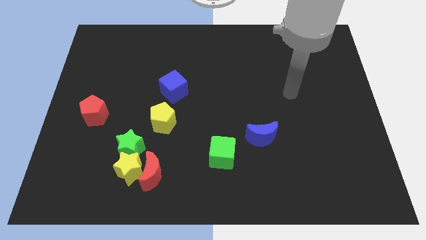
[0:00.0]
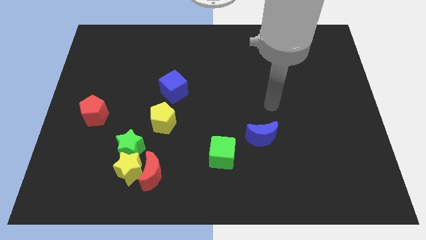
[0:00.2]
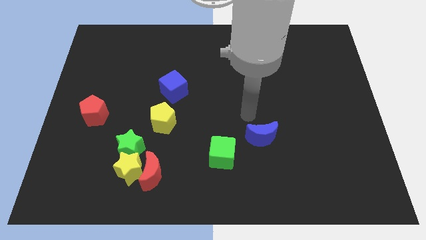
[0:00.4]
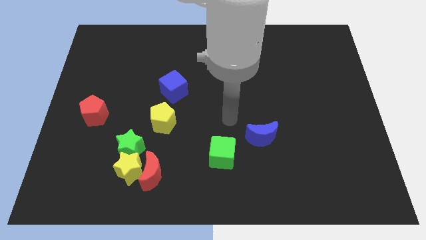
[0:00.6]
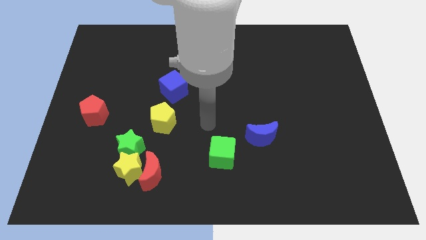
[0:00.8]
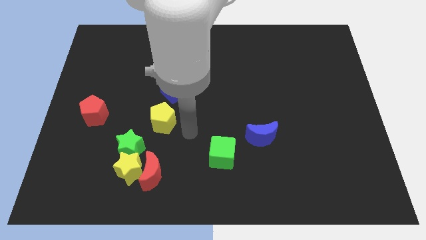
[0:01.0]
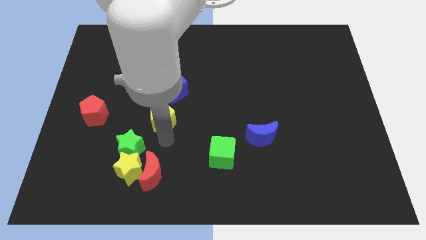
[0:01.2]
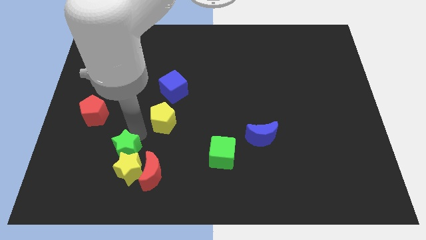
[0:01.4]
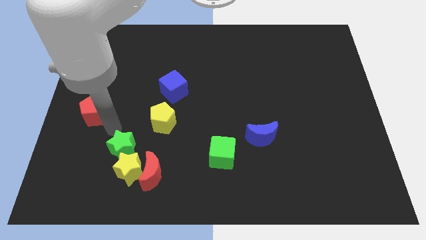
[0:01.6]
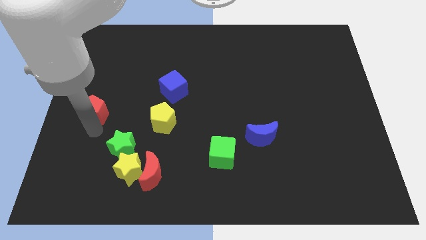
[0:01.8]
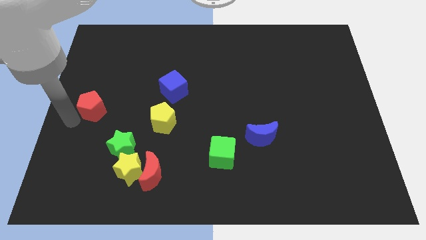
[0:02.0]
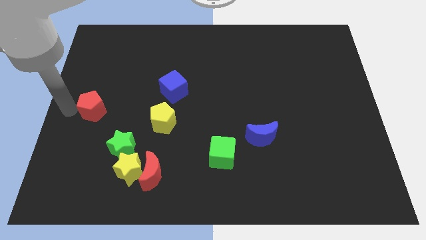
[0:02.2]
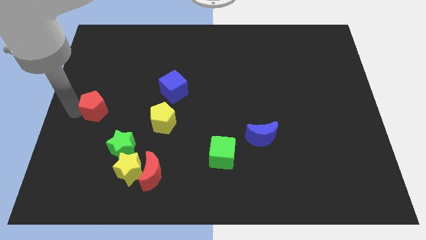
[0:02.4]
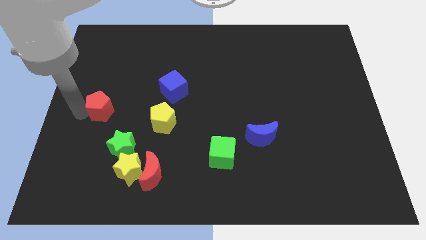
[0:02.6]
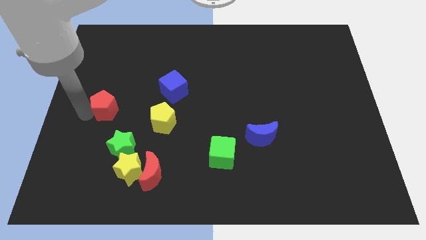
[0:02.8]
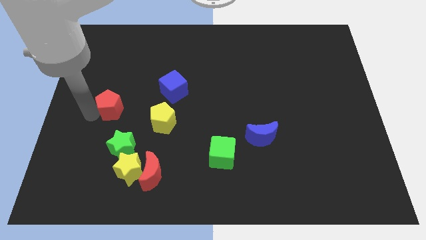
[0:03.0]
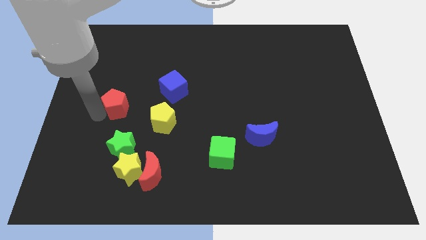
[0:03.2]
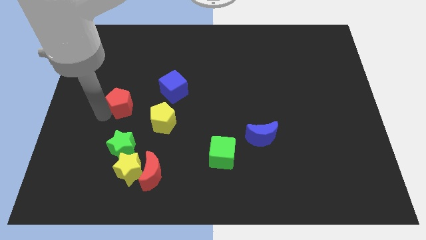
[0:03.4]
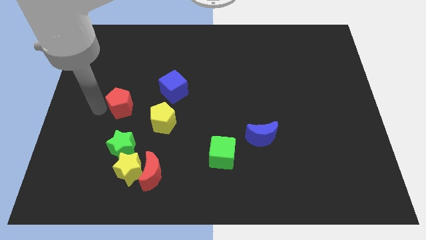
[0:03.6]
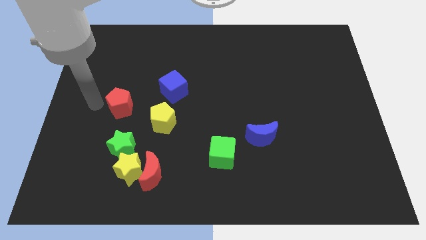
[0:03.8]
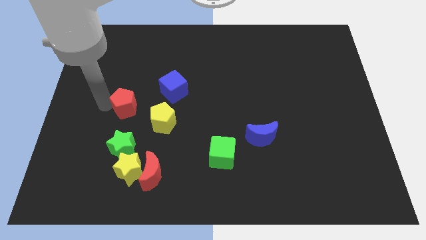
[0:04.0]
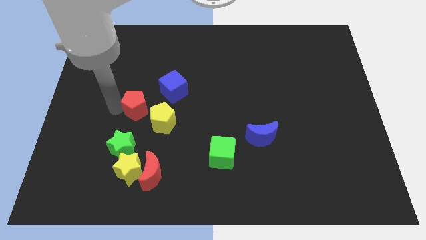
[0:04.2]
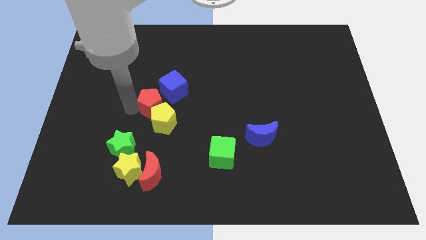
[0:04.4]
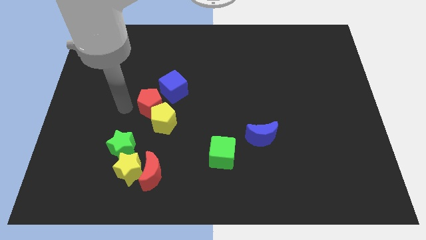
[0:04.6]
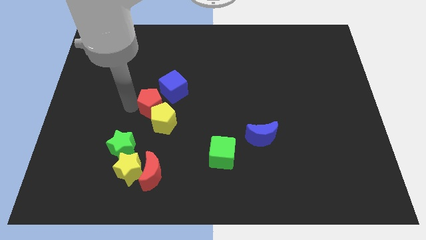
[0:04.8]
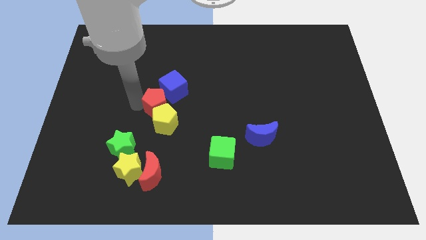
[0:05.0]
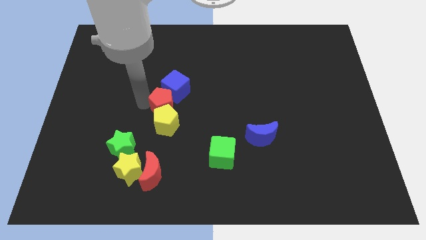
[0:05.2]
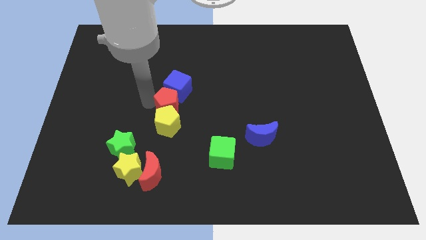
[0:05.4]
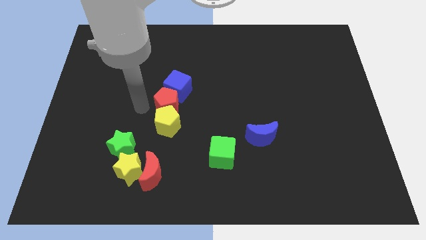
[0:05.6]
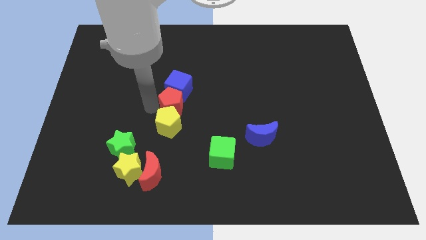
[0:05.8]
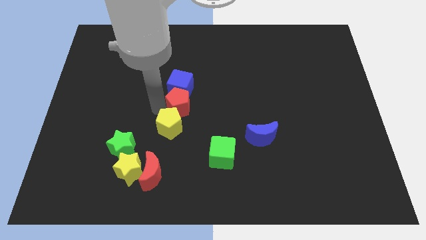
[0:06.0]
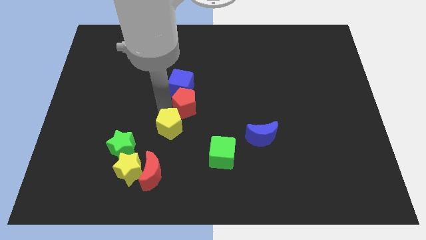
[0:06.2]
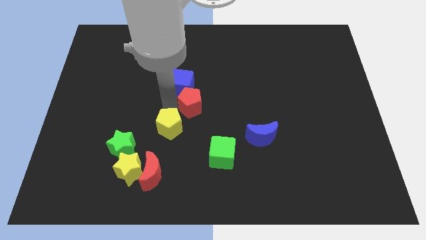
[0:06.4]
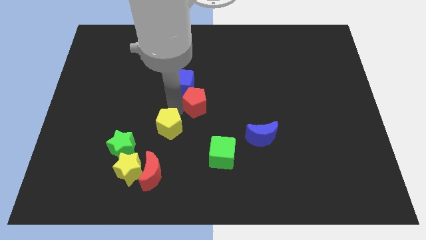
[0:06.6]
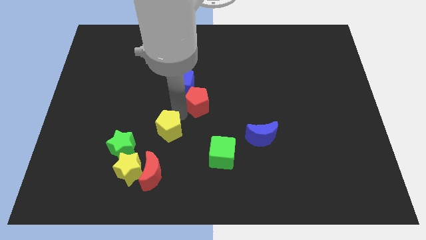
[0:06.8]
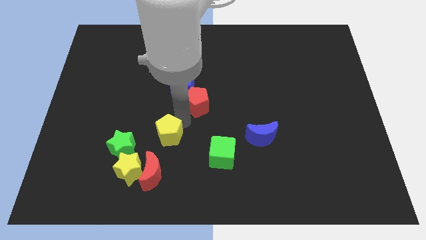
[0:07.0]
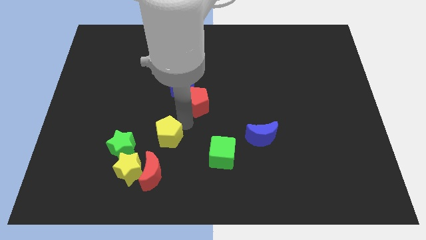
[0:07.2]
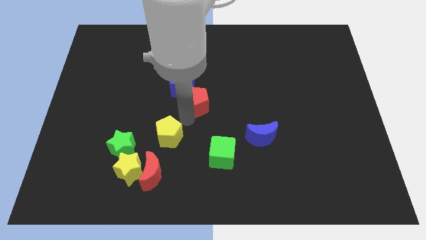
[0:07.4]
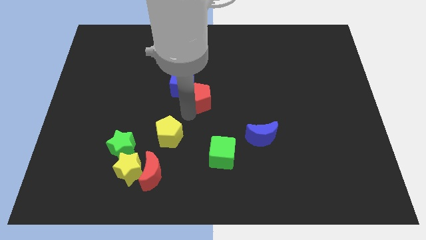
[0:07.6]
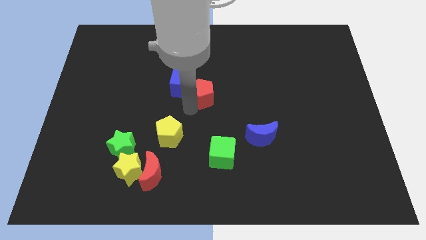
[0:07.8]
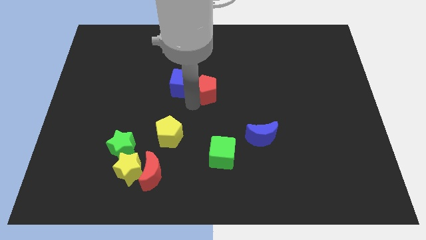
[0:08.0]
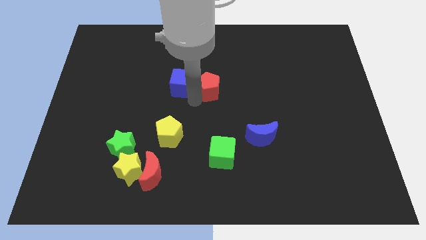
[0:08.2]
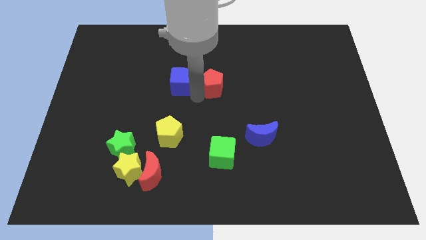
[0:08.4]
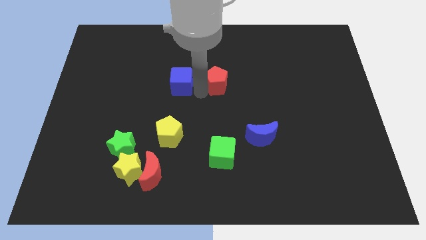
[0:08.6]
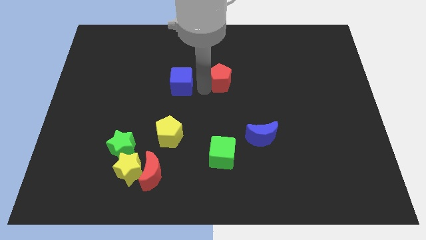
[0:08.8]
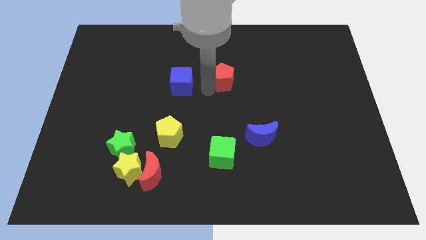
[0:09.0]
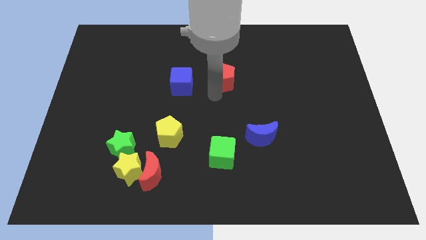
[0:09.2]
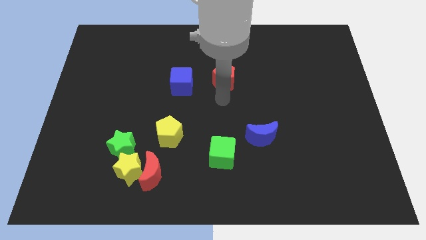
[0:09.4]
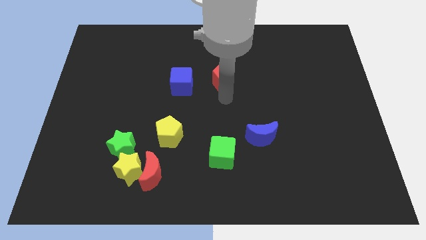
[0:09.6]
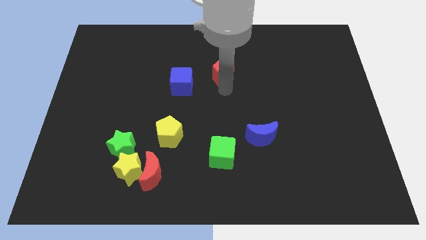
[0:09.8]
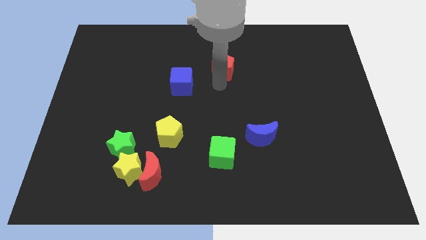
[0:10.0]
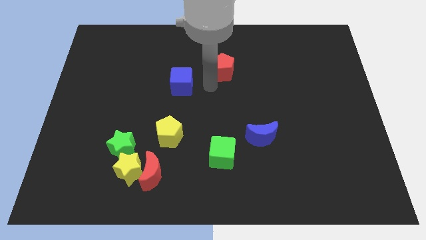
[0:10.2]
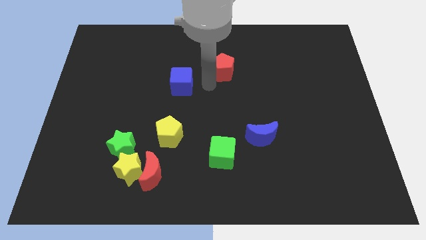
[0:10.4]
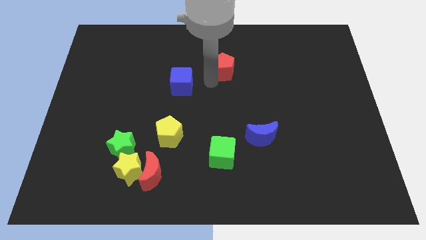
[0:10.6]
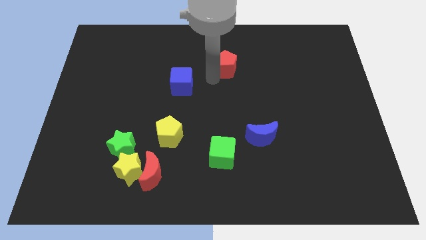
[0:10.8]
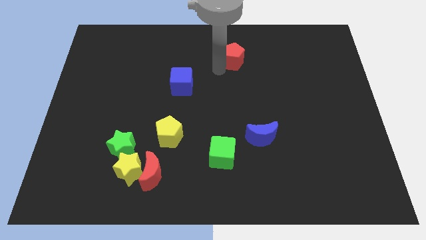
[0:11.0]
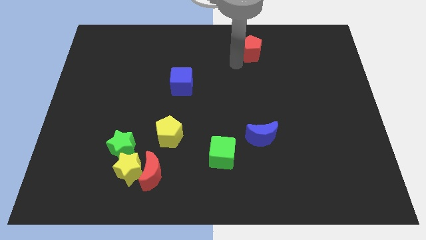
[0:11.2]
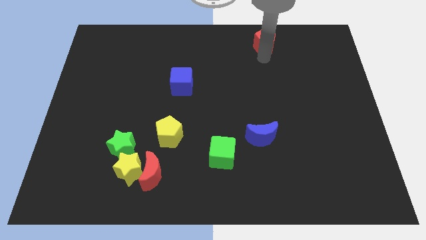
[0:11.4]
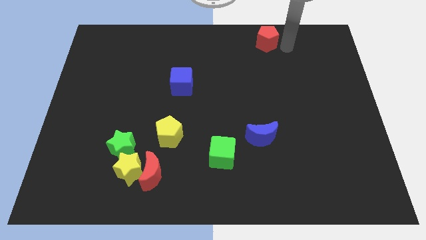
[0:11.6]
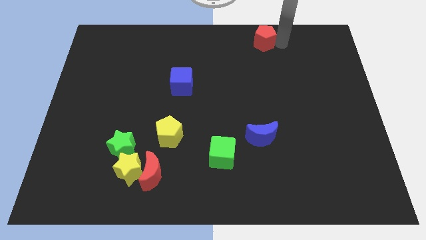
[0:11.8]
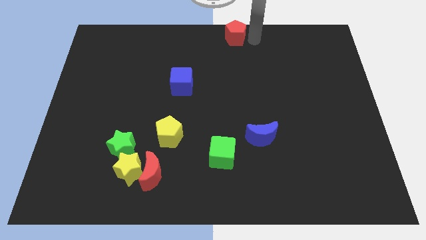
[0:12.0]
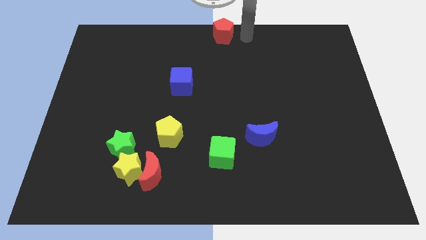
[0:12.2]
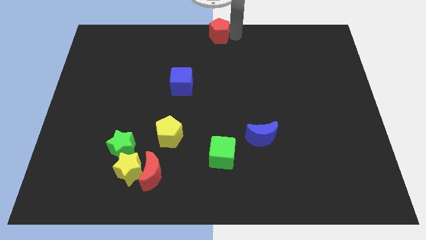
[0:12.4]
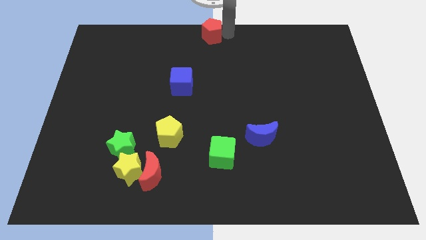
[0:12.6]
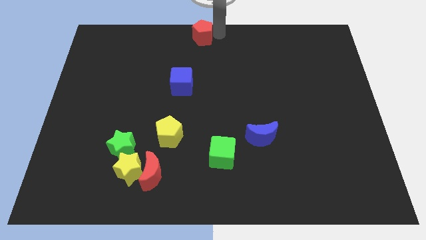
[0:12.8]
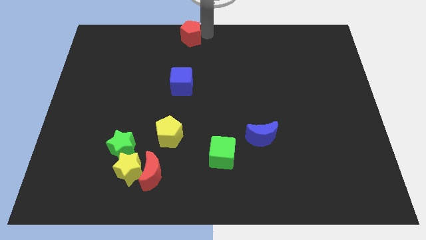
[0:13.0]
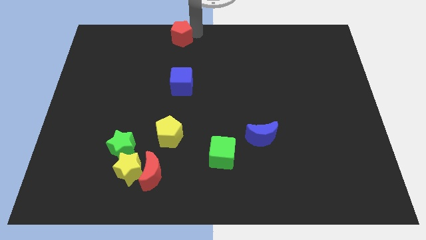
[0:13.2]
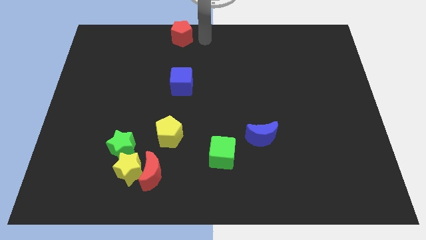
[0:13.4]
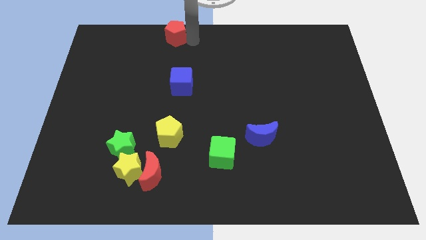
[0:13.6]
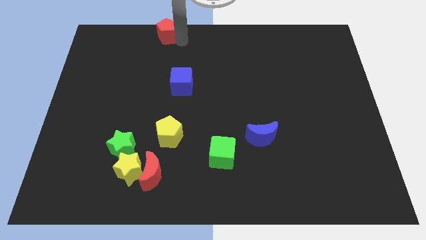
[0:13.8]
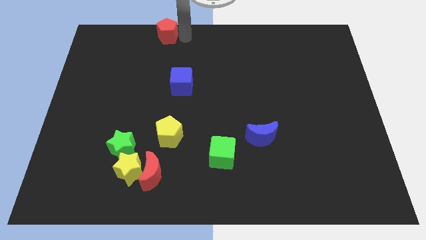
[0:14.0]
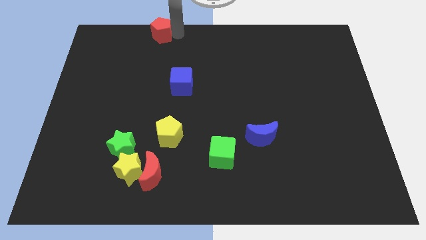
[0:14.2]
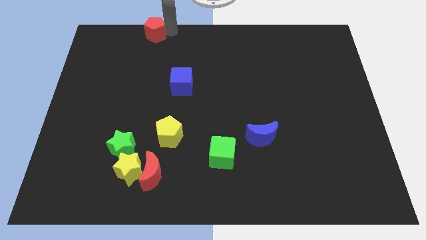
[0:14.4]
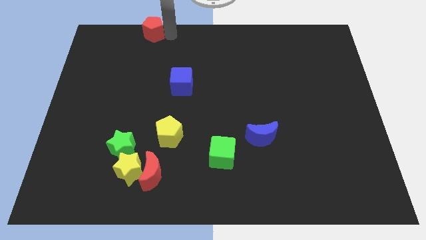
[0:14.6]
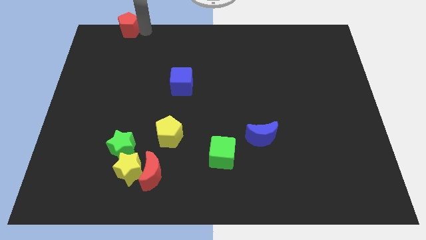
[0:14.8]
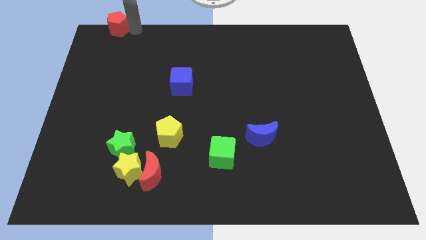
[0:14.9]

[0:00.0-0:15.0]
push the red pentagon to the upper left corner
